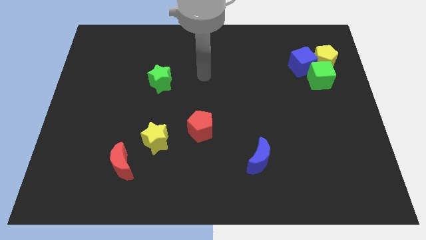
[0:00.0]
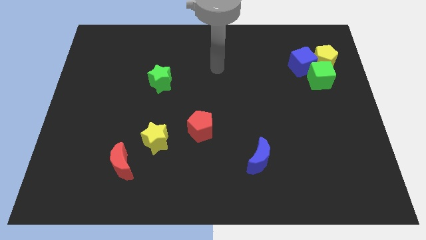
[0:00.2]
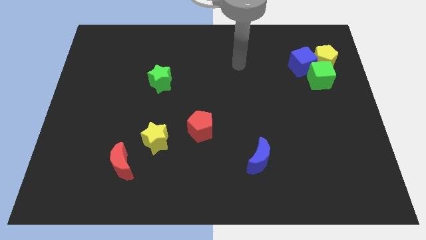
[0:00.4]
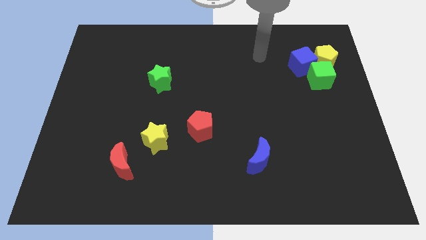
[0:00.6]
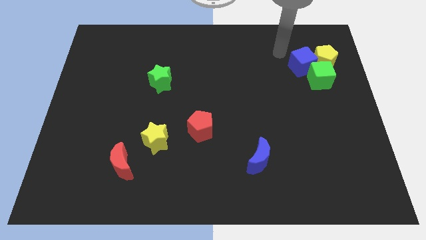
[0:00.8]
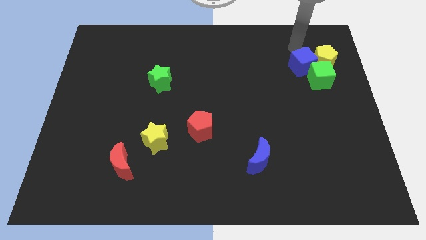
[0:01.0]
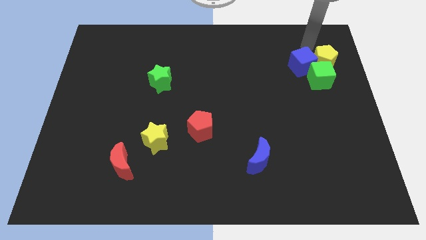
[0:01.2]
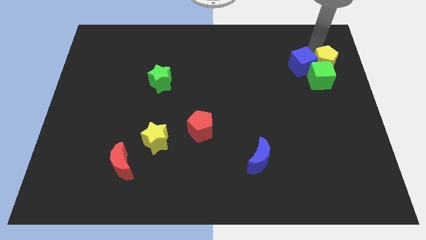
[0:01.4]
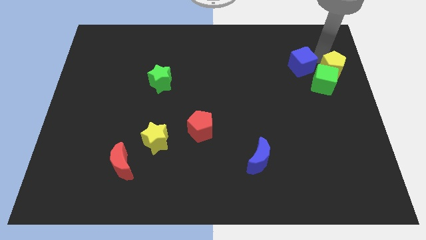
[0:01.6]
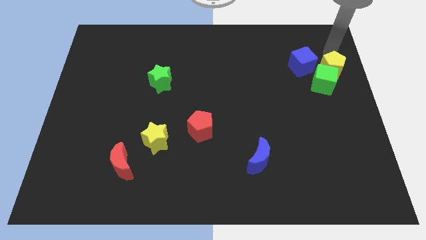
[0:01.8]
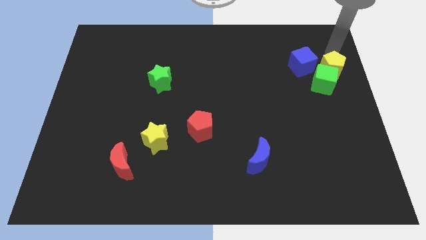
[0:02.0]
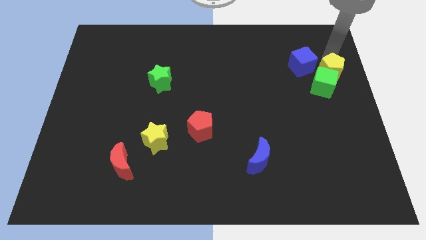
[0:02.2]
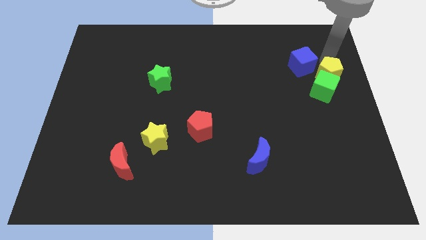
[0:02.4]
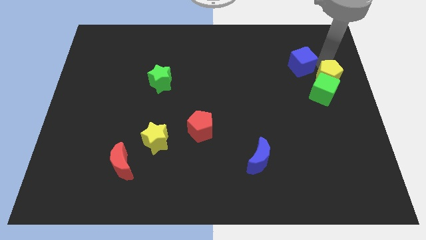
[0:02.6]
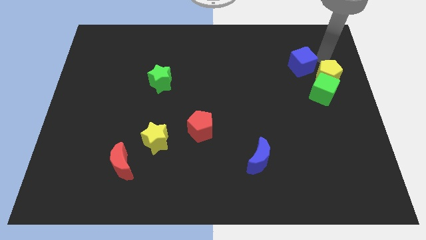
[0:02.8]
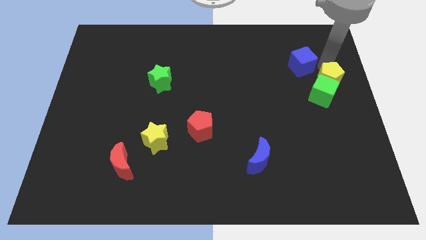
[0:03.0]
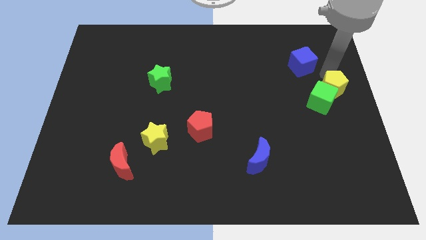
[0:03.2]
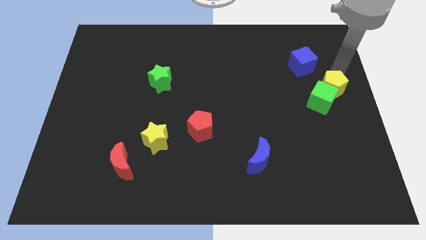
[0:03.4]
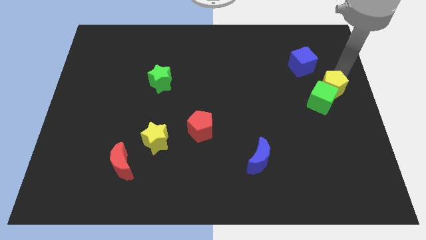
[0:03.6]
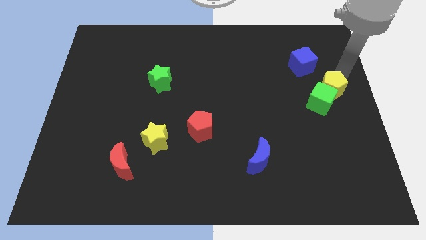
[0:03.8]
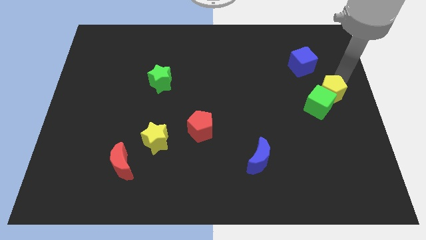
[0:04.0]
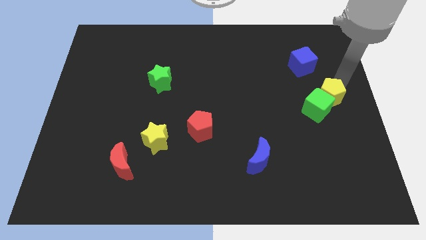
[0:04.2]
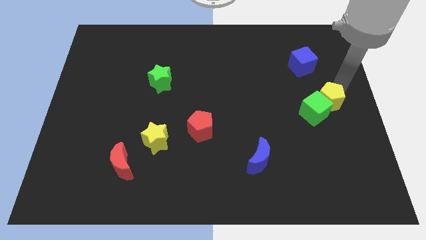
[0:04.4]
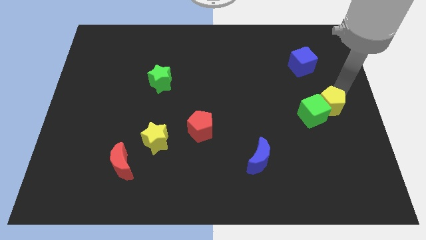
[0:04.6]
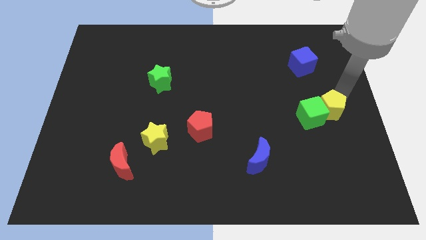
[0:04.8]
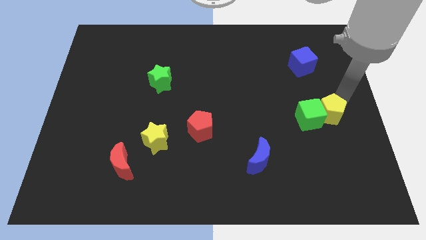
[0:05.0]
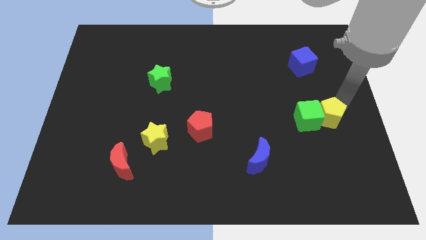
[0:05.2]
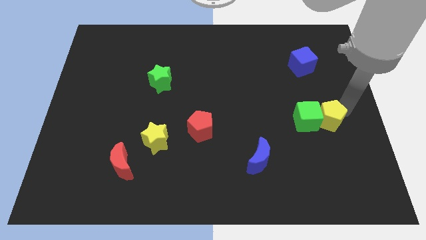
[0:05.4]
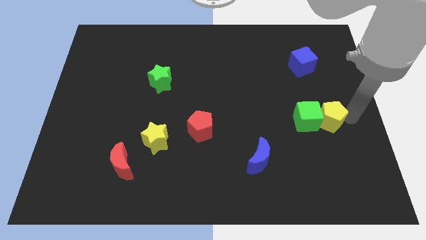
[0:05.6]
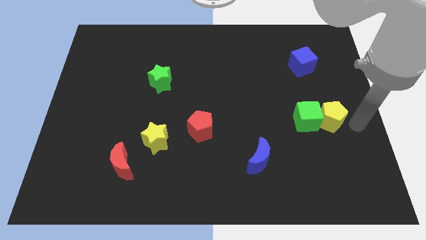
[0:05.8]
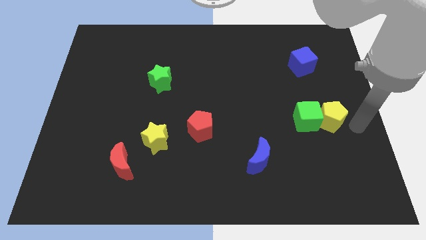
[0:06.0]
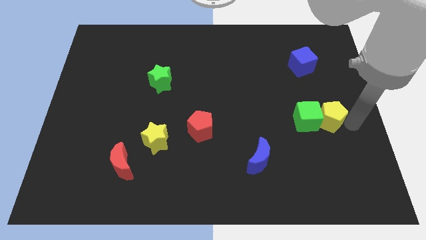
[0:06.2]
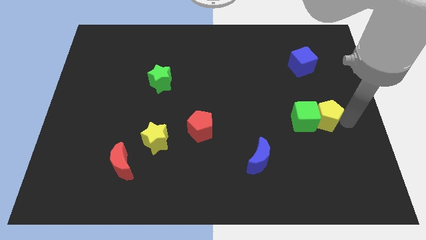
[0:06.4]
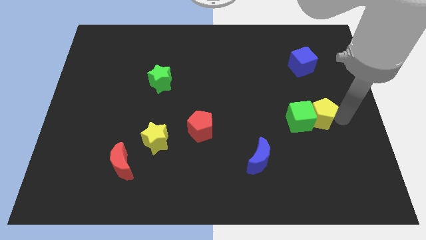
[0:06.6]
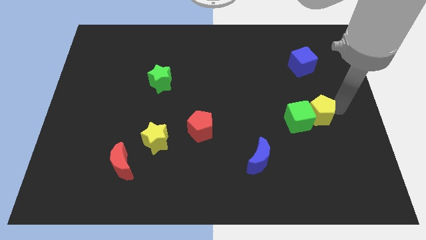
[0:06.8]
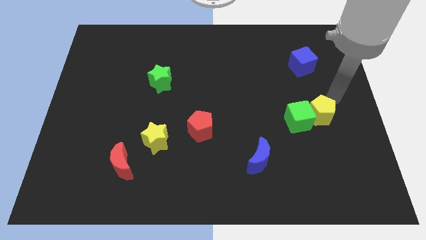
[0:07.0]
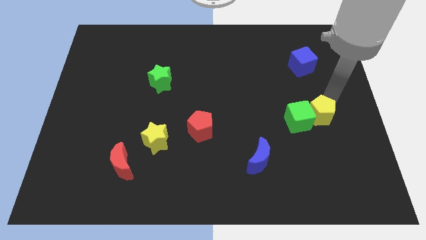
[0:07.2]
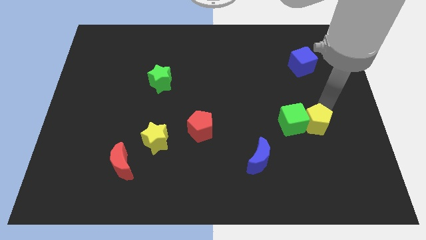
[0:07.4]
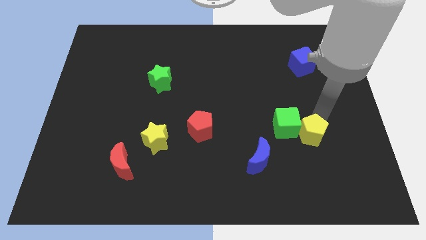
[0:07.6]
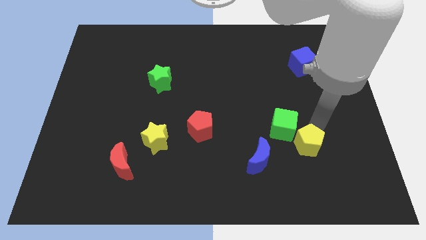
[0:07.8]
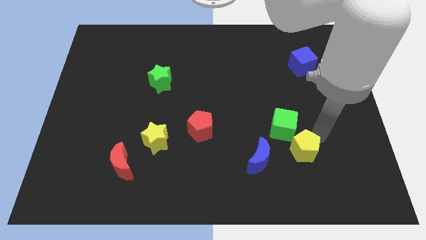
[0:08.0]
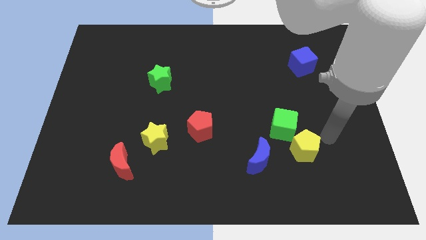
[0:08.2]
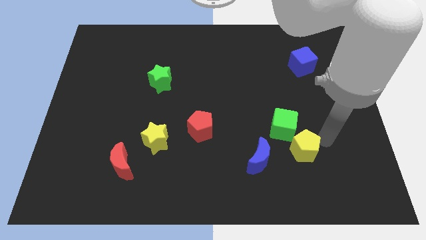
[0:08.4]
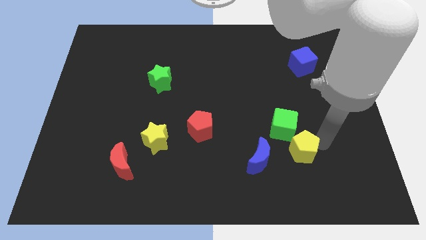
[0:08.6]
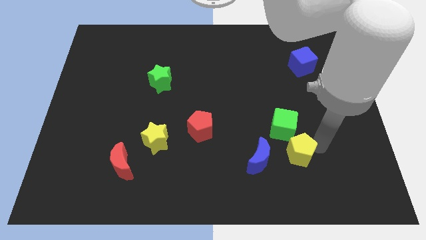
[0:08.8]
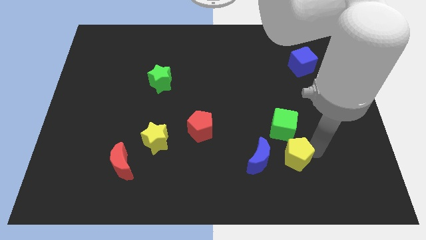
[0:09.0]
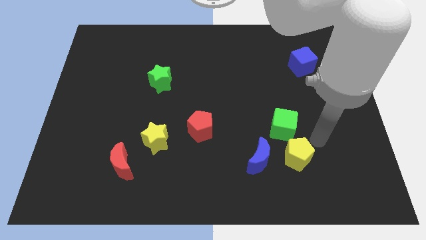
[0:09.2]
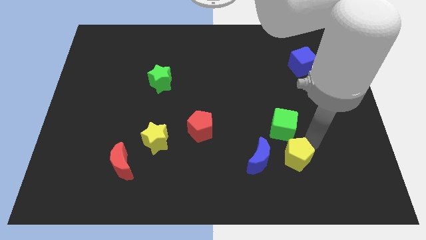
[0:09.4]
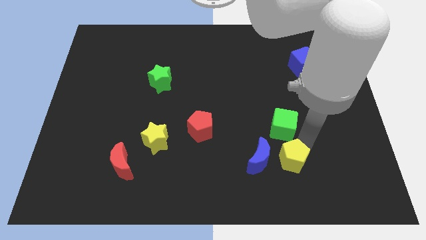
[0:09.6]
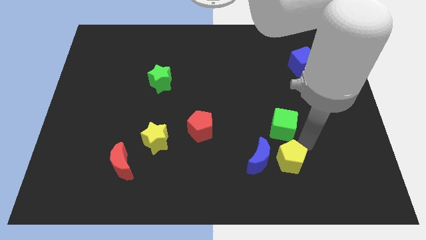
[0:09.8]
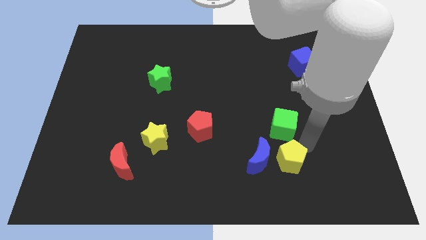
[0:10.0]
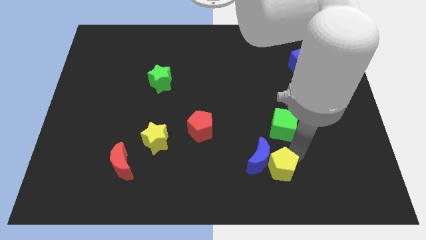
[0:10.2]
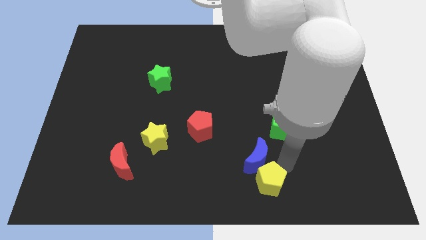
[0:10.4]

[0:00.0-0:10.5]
push the yellow pentagon to the bottom
